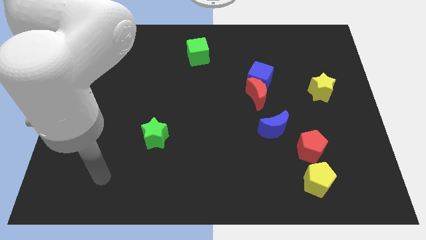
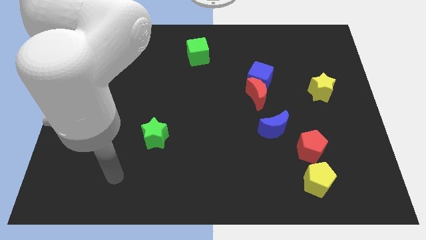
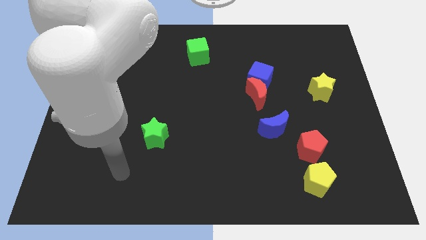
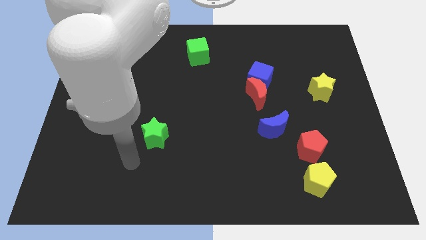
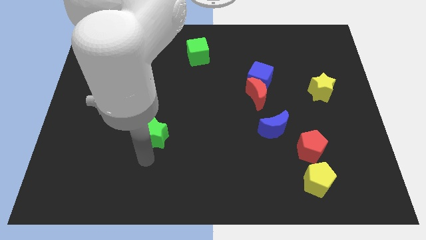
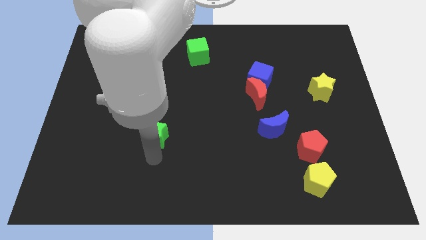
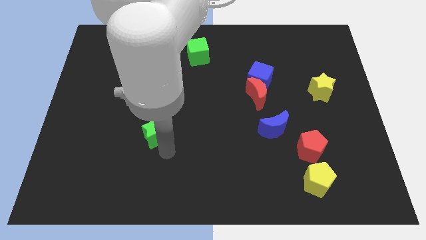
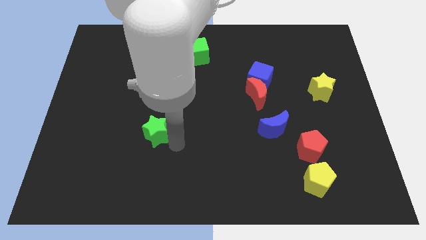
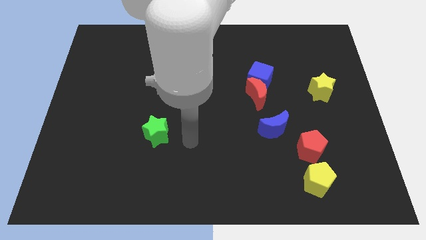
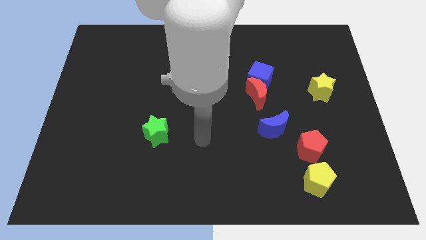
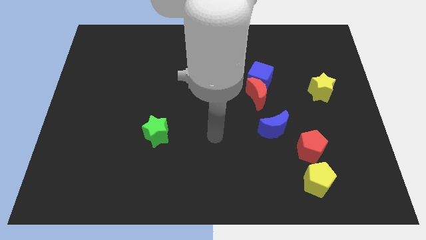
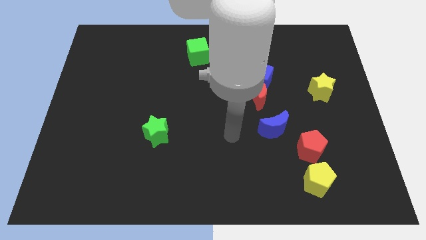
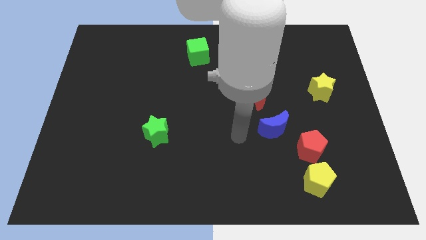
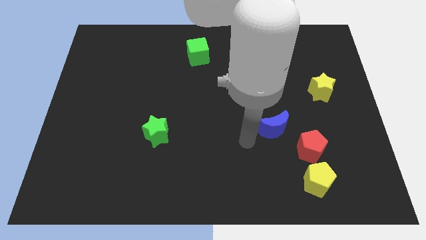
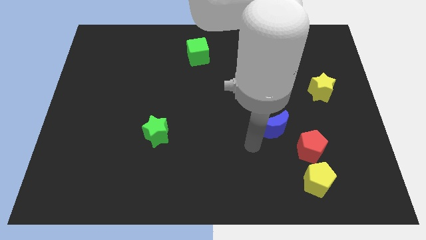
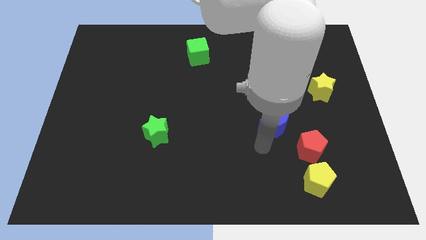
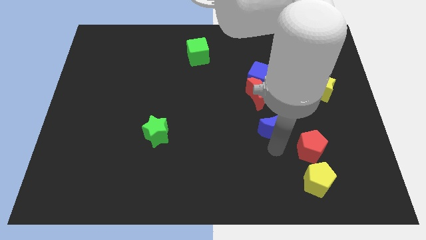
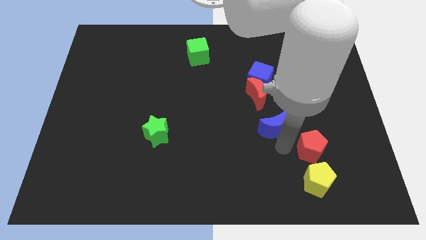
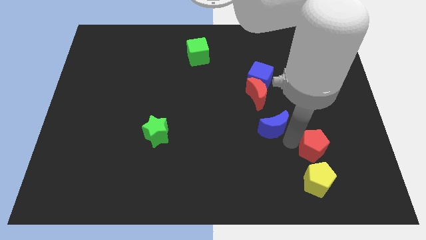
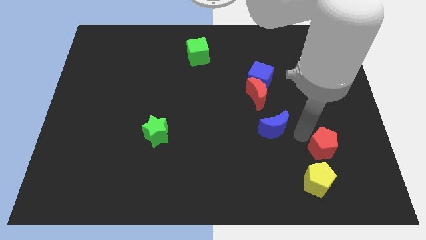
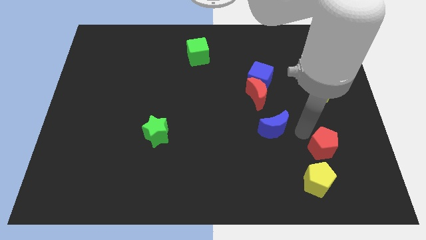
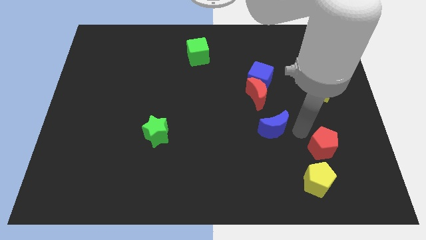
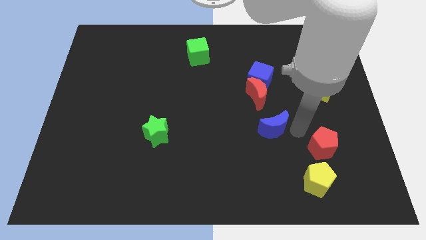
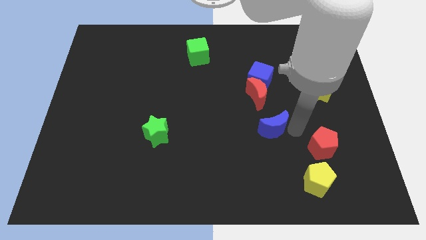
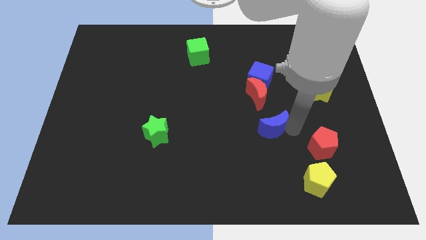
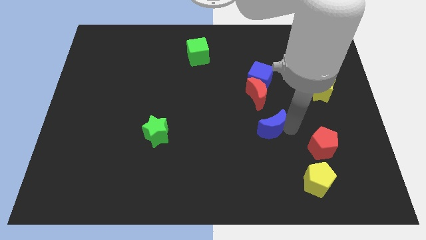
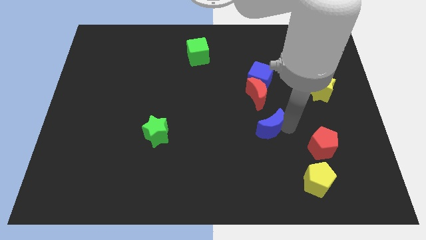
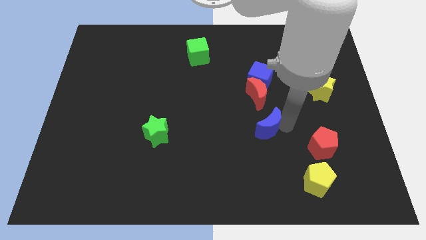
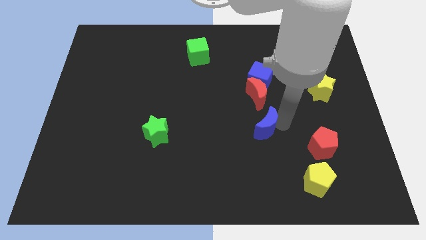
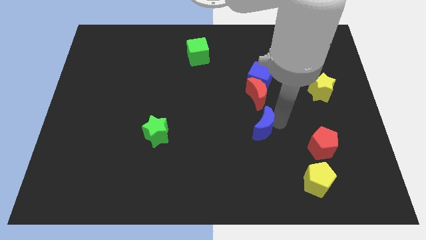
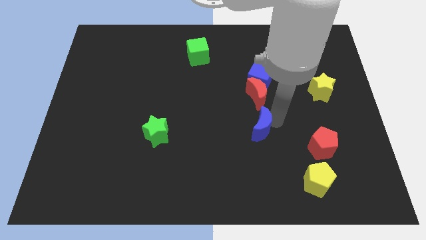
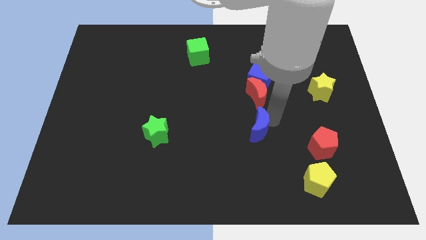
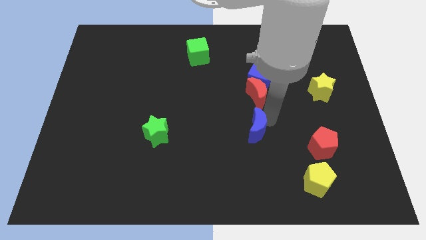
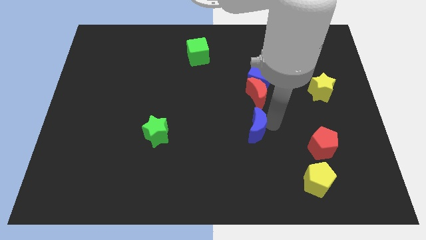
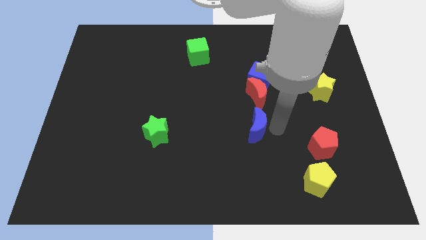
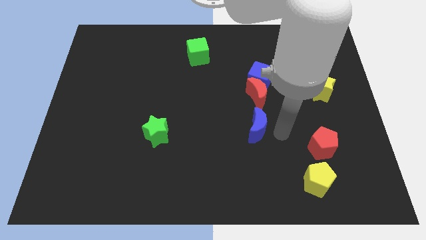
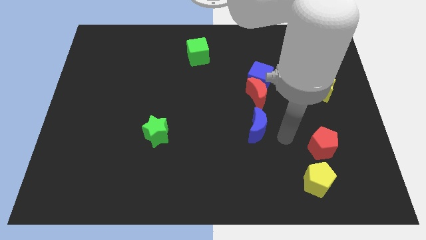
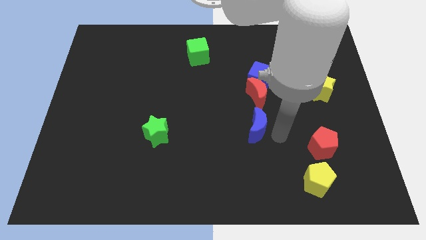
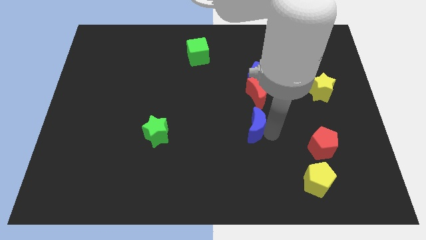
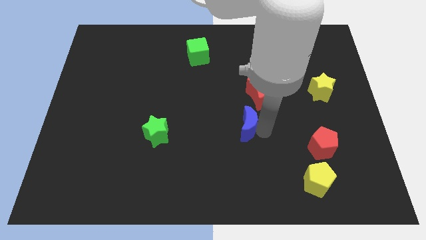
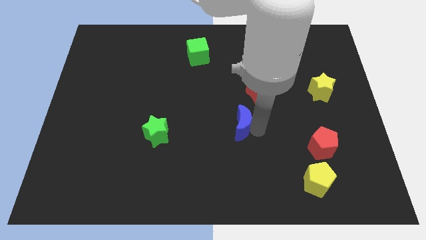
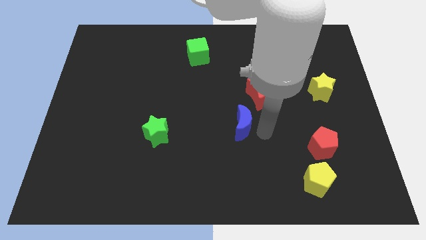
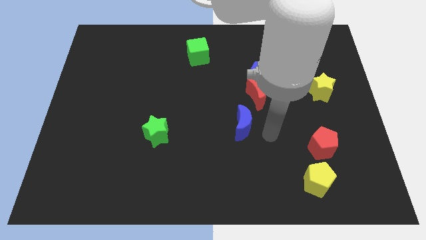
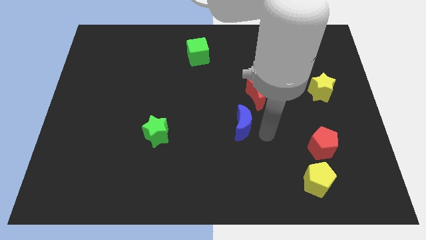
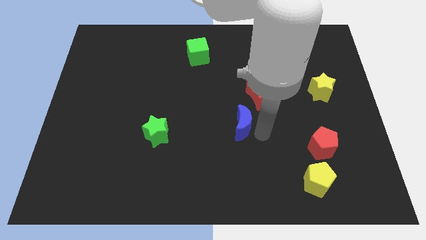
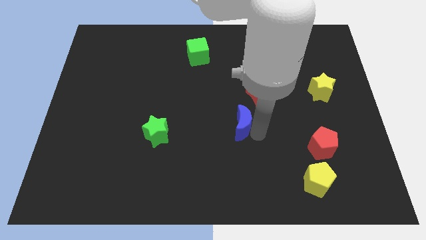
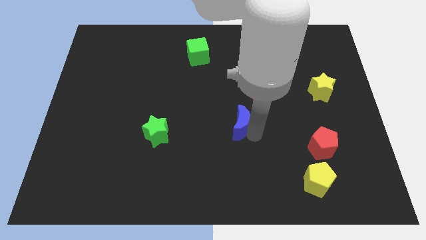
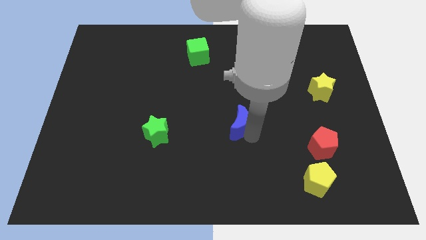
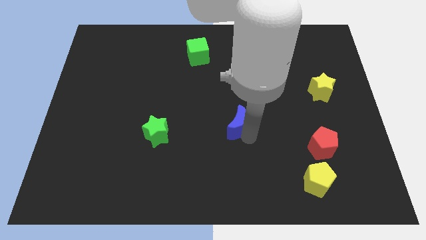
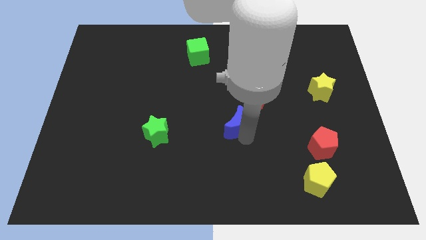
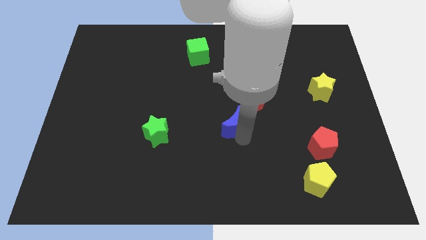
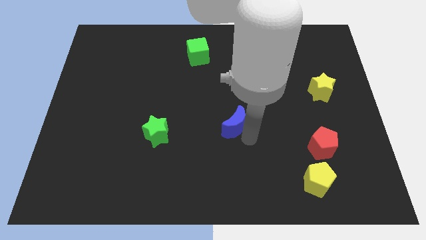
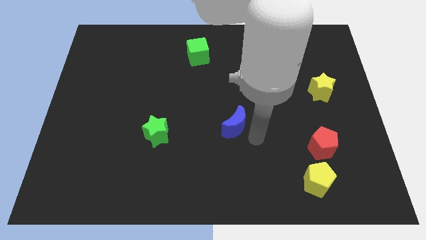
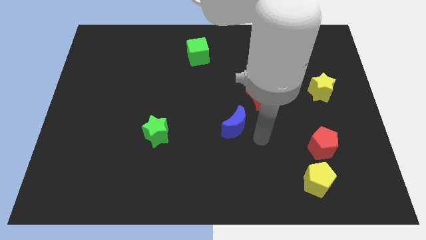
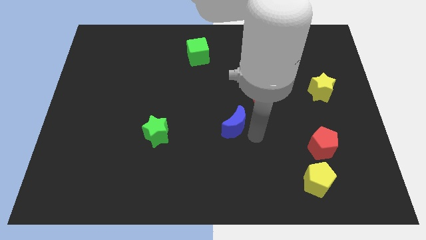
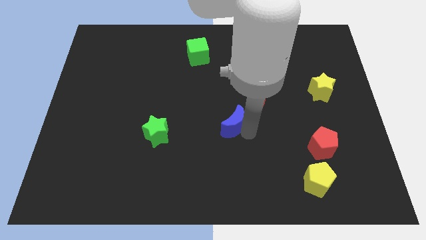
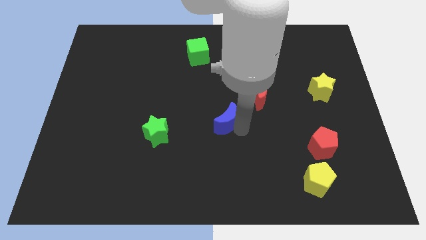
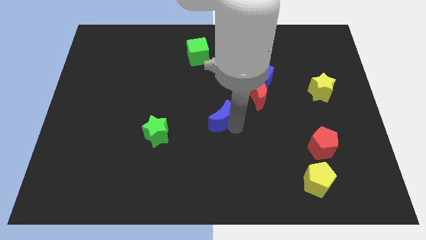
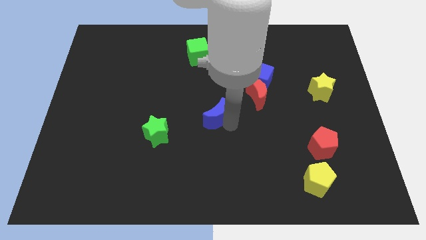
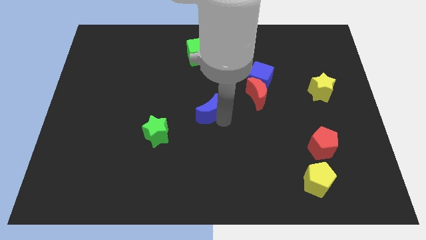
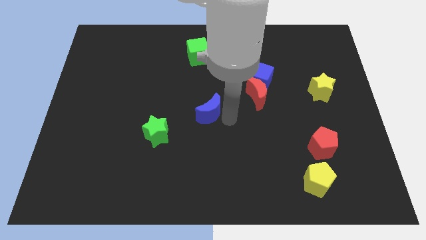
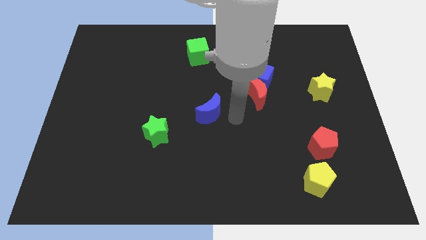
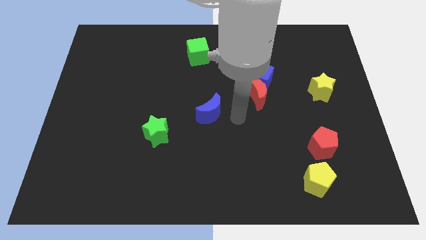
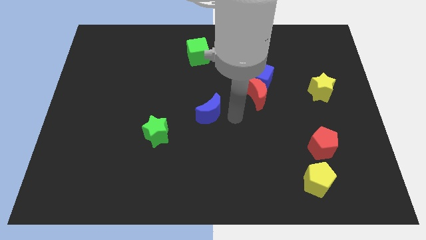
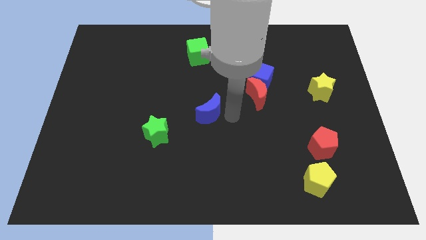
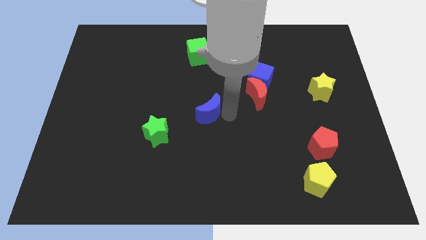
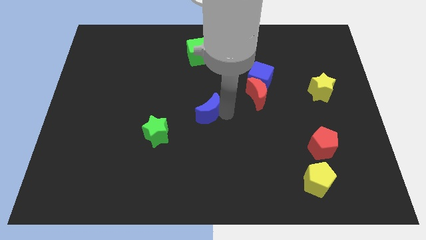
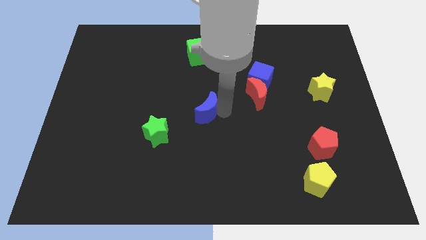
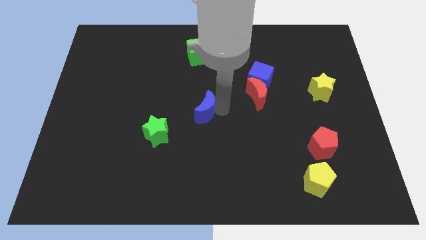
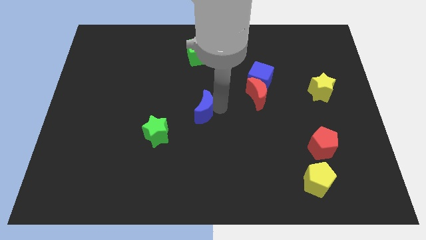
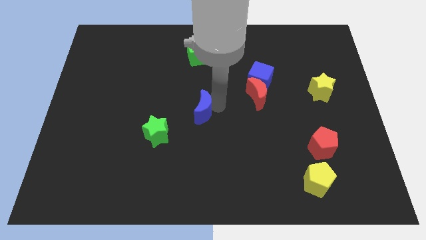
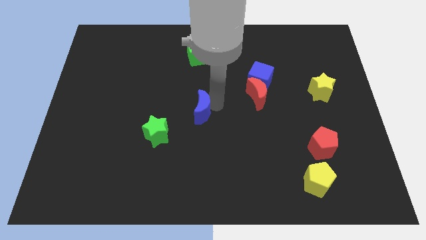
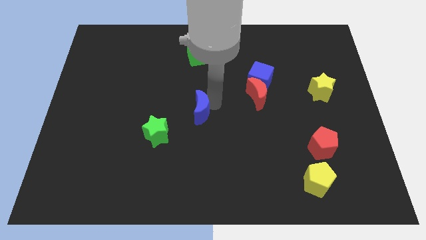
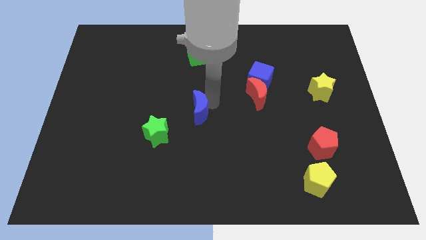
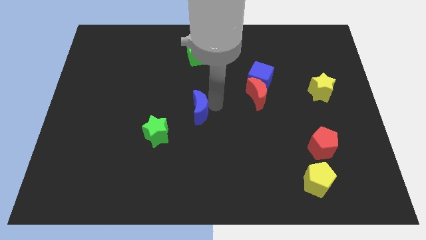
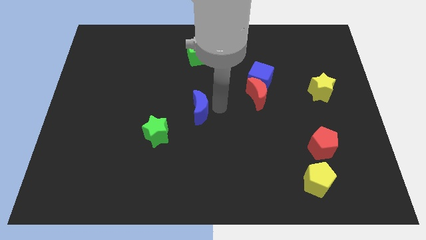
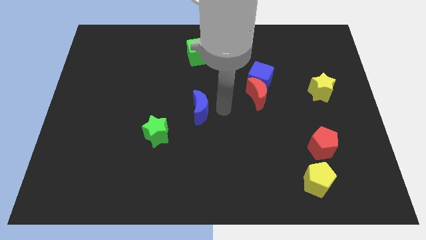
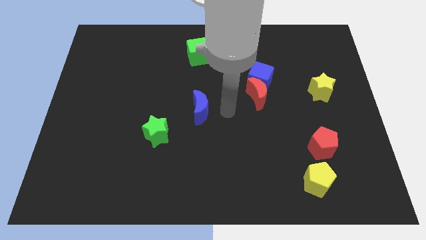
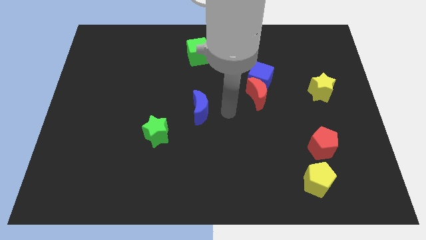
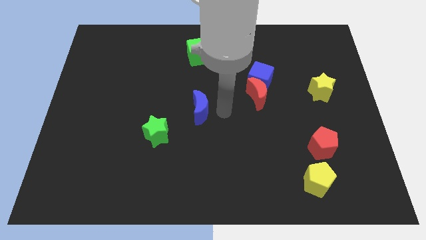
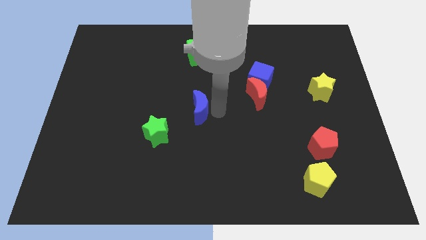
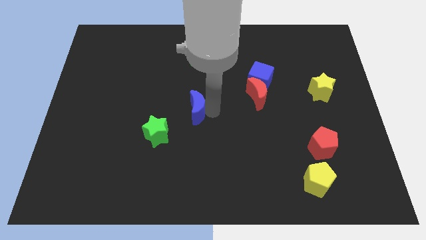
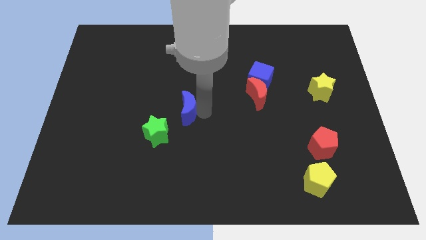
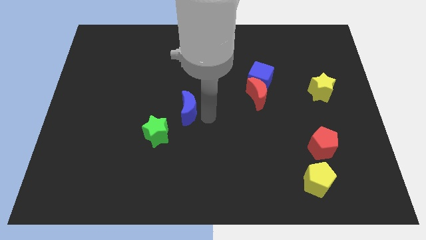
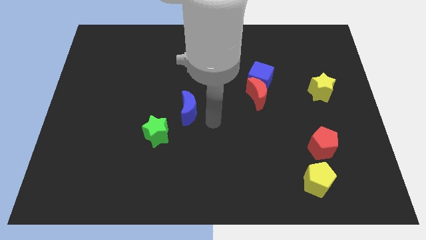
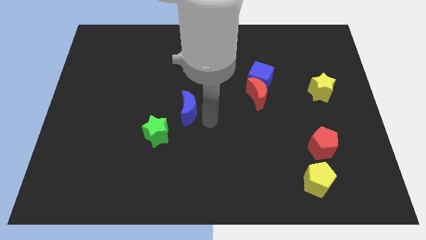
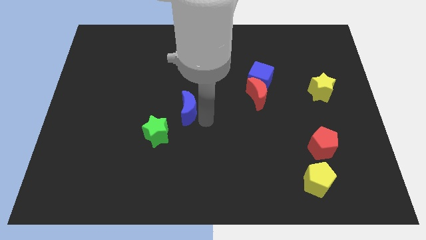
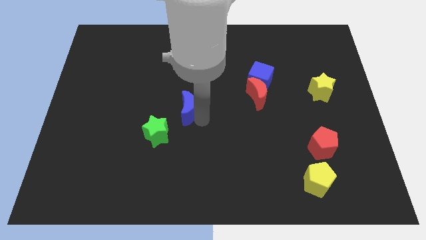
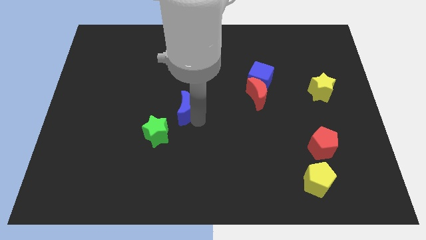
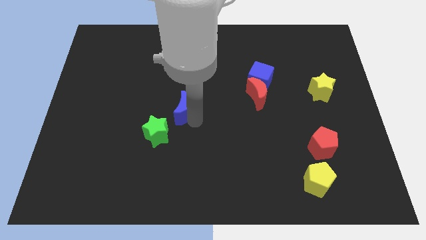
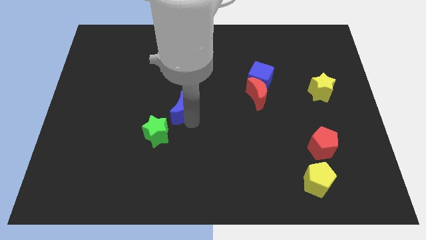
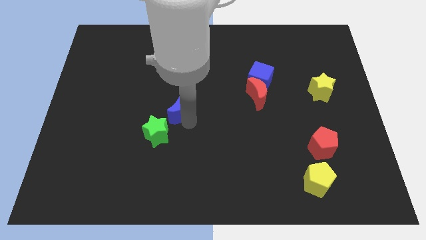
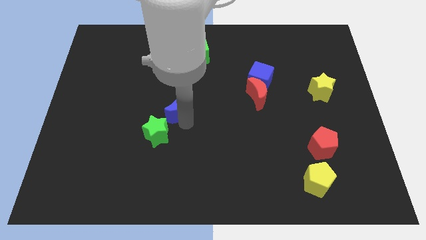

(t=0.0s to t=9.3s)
put the blue moon to the top of the green star
